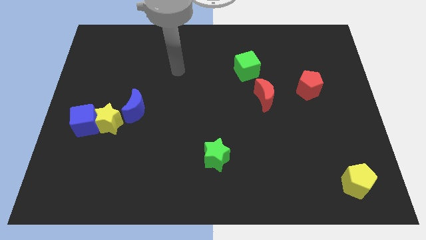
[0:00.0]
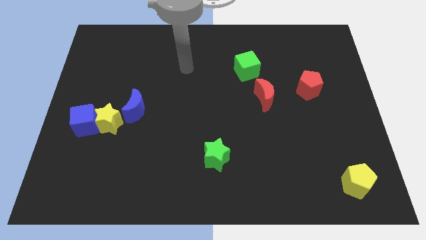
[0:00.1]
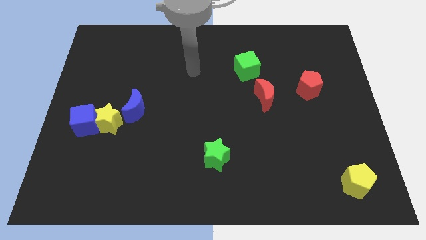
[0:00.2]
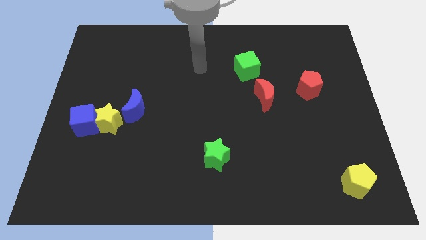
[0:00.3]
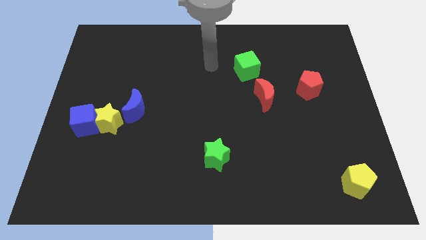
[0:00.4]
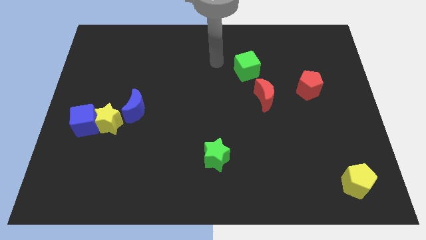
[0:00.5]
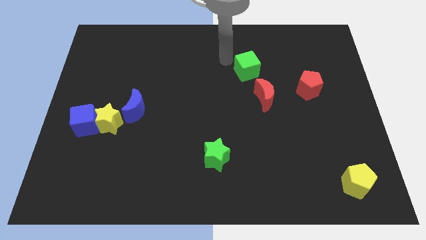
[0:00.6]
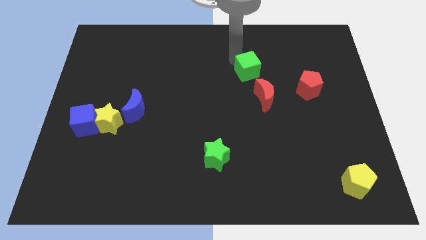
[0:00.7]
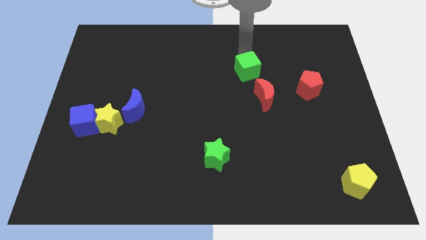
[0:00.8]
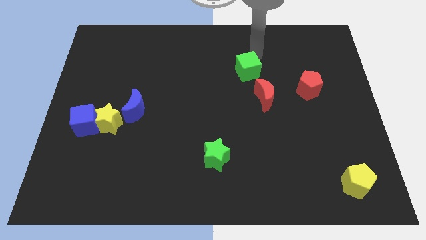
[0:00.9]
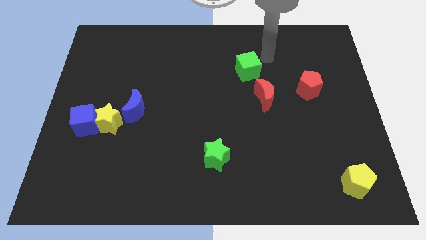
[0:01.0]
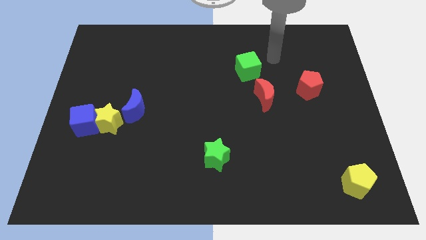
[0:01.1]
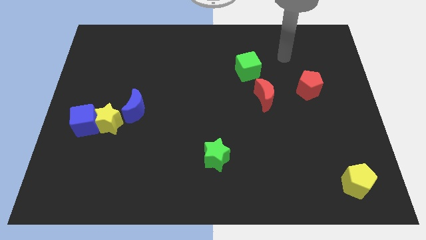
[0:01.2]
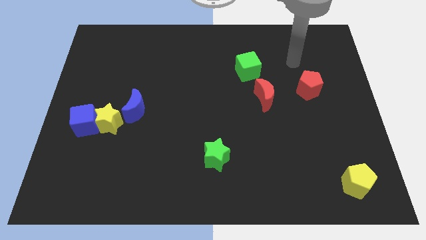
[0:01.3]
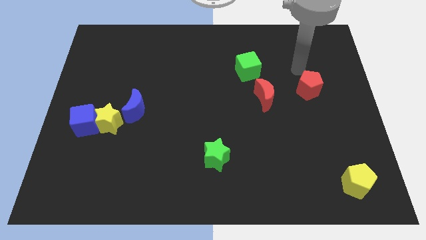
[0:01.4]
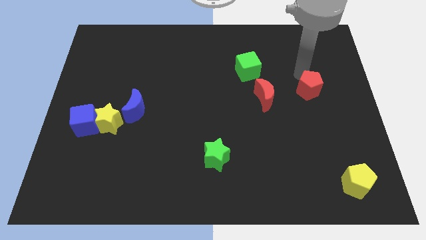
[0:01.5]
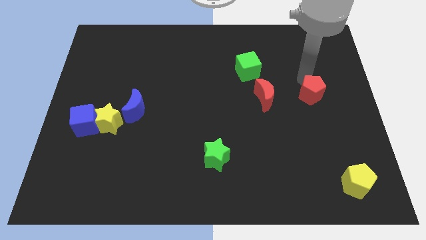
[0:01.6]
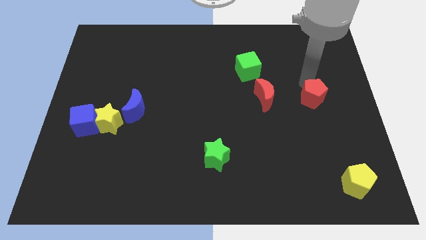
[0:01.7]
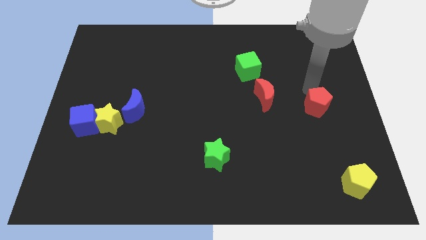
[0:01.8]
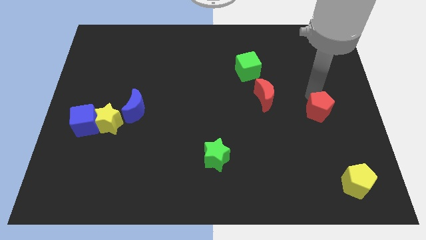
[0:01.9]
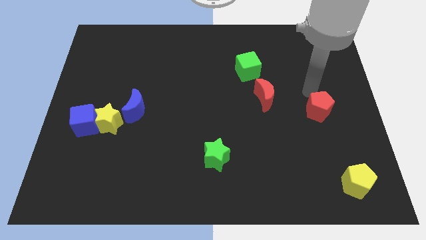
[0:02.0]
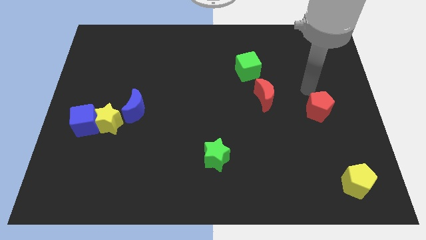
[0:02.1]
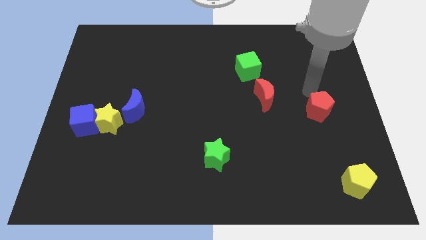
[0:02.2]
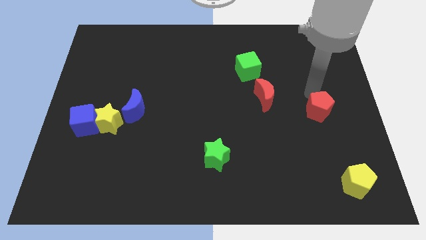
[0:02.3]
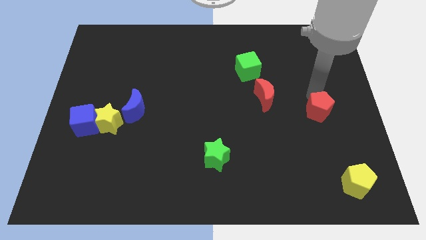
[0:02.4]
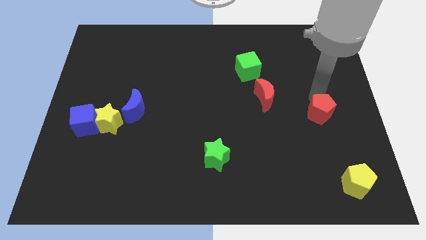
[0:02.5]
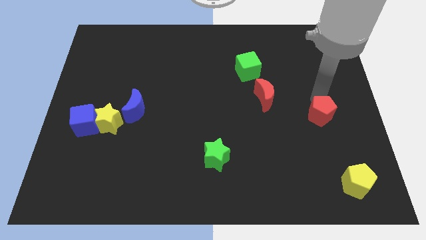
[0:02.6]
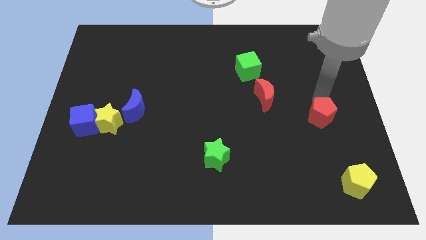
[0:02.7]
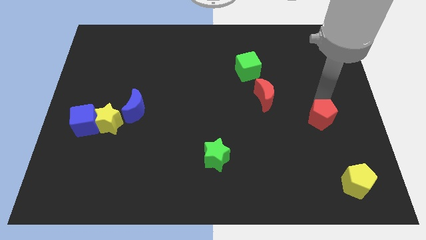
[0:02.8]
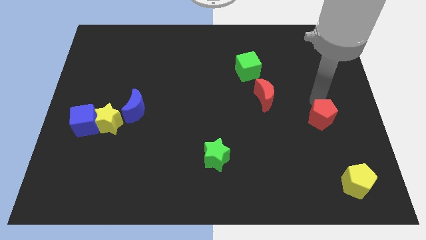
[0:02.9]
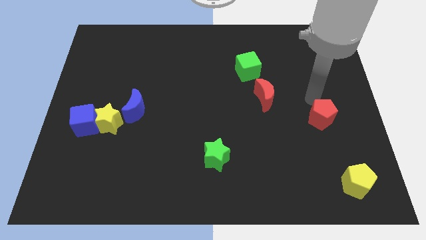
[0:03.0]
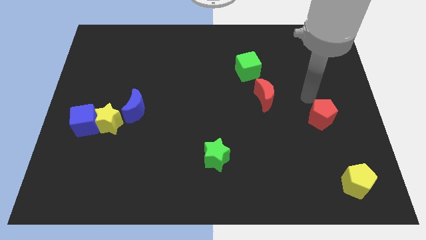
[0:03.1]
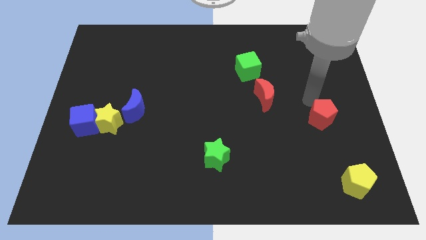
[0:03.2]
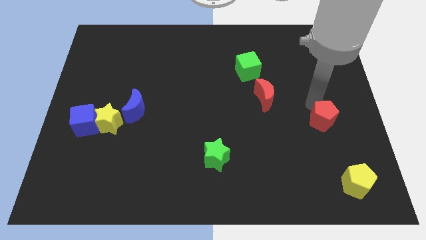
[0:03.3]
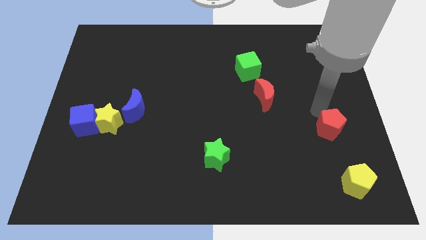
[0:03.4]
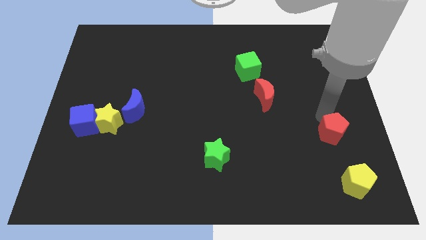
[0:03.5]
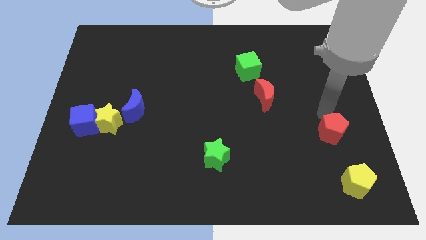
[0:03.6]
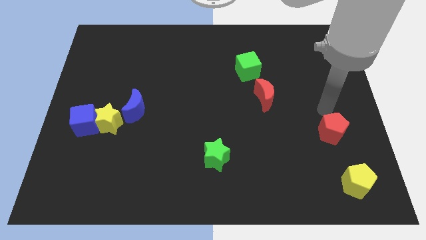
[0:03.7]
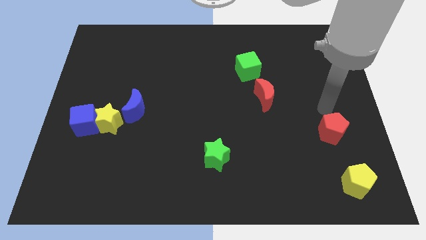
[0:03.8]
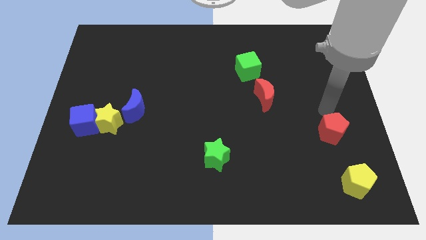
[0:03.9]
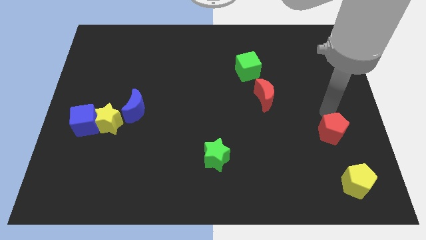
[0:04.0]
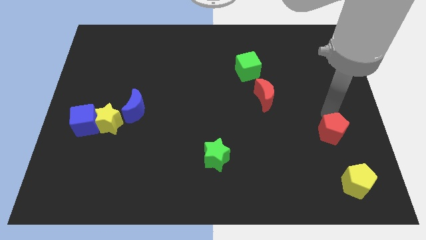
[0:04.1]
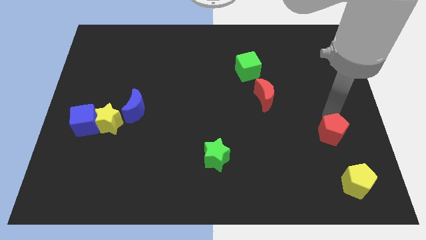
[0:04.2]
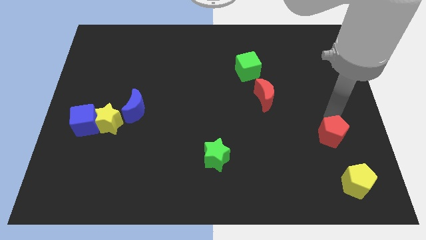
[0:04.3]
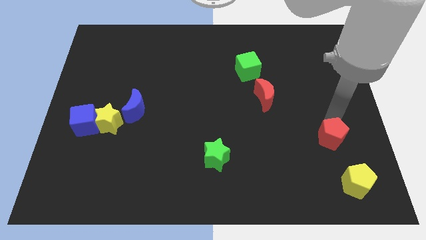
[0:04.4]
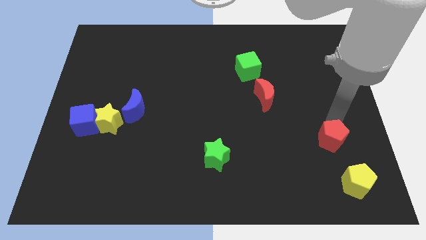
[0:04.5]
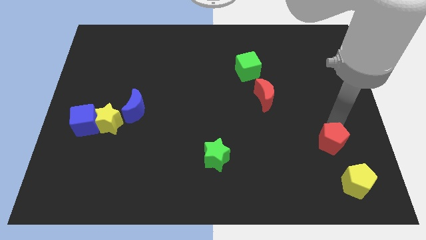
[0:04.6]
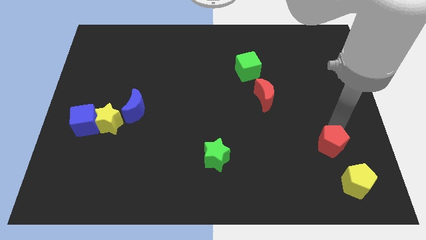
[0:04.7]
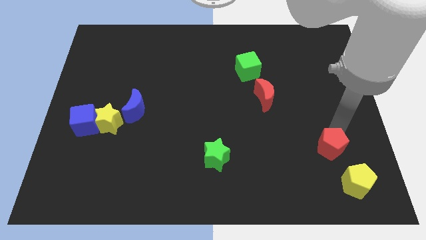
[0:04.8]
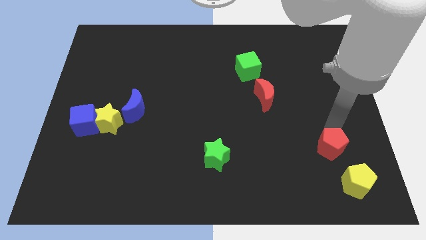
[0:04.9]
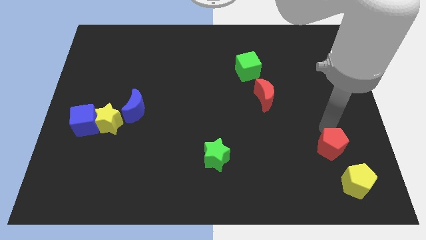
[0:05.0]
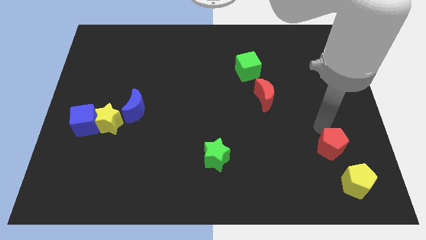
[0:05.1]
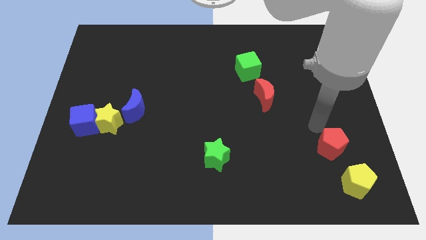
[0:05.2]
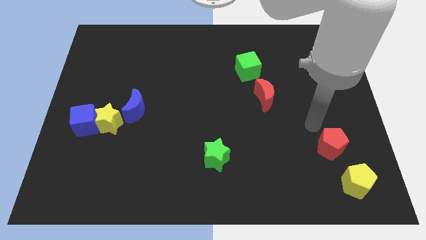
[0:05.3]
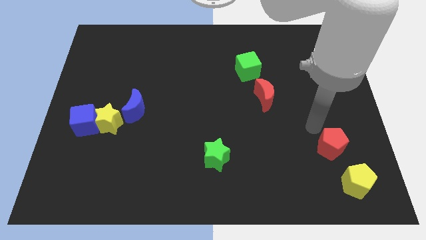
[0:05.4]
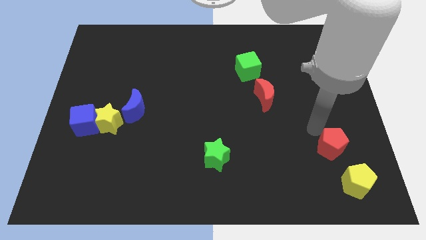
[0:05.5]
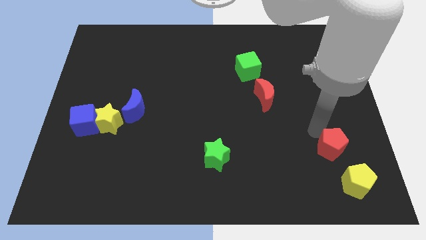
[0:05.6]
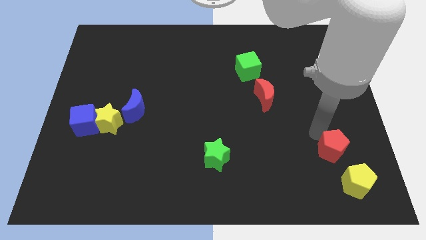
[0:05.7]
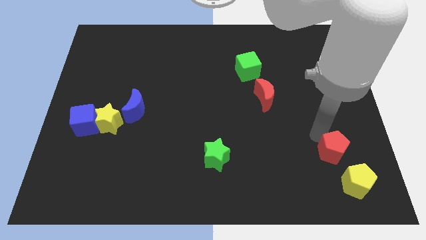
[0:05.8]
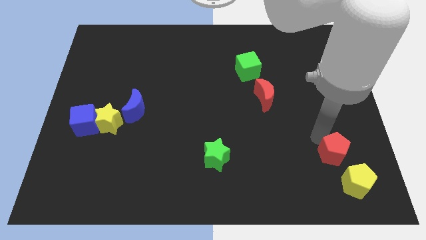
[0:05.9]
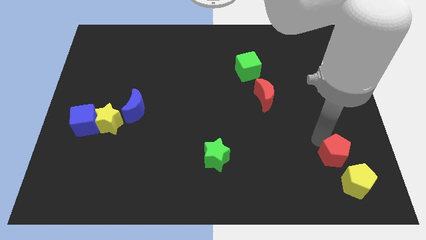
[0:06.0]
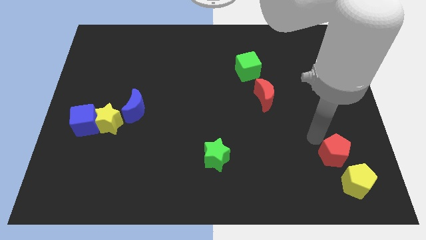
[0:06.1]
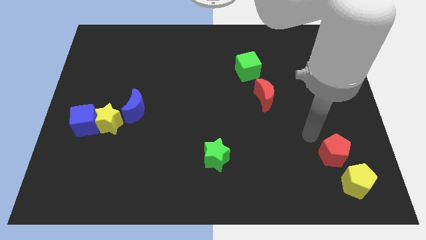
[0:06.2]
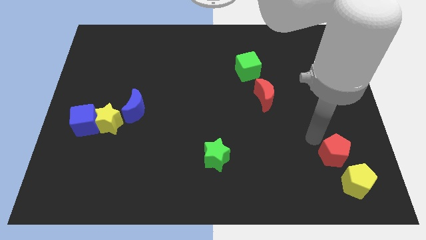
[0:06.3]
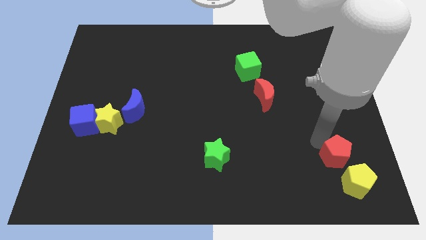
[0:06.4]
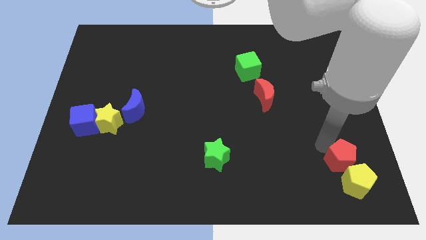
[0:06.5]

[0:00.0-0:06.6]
slide the red pentagon next to the yellow pentagon
